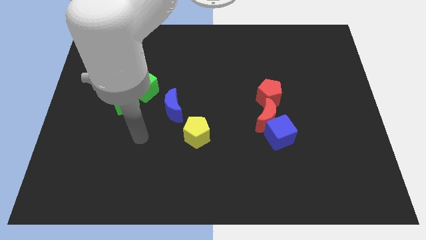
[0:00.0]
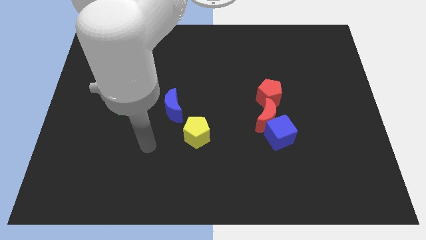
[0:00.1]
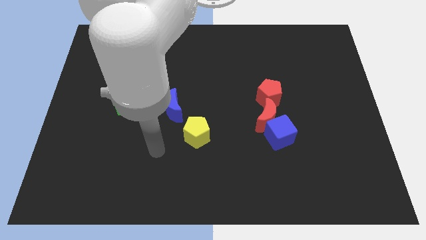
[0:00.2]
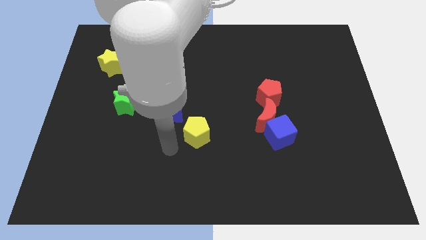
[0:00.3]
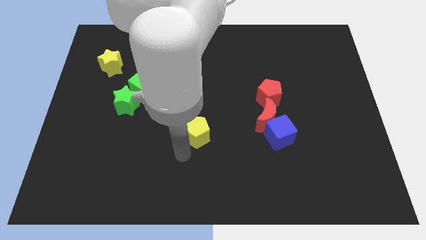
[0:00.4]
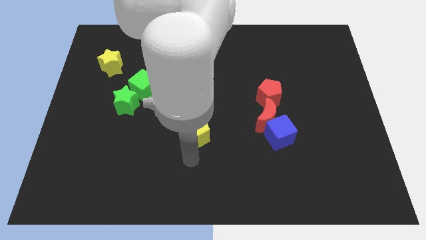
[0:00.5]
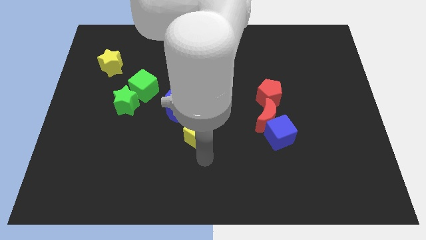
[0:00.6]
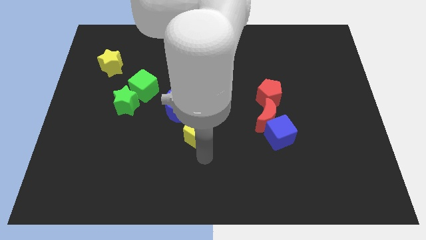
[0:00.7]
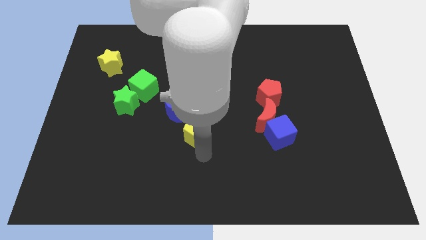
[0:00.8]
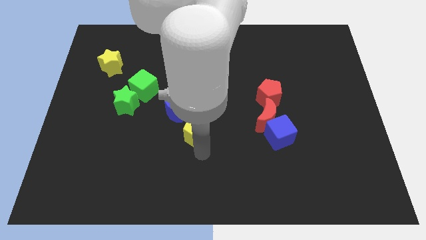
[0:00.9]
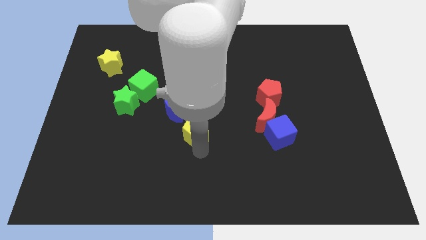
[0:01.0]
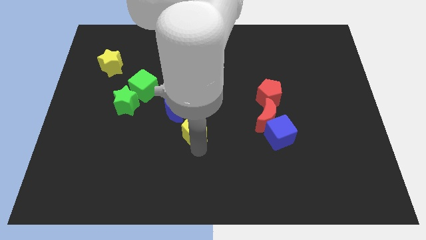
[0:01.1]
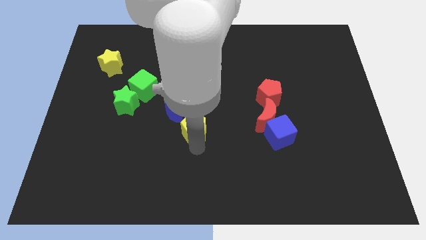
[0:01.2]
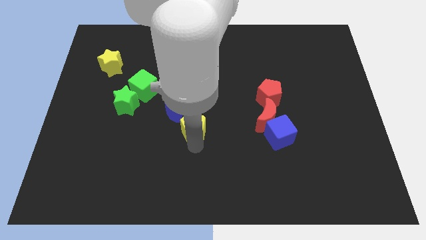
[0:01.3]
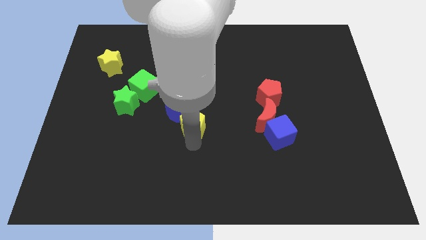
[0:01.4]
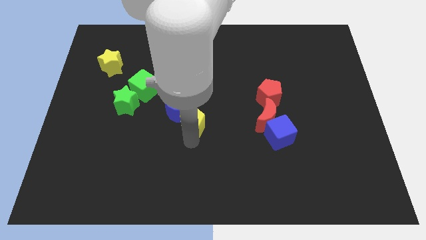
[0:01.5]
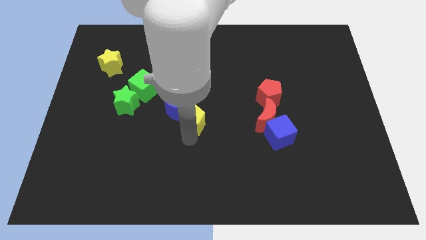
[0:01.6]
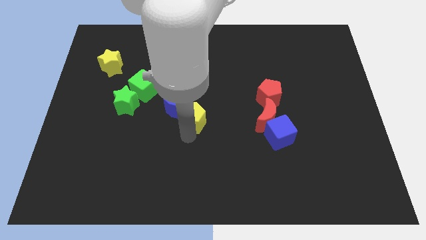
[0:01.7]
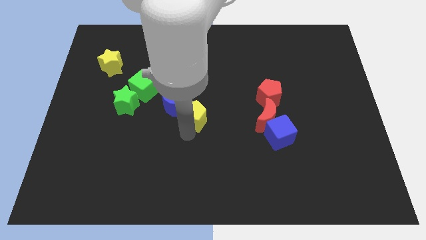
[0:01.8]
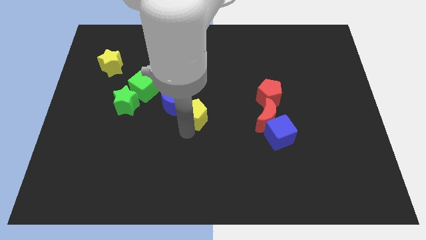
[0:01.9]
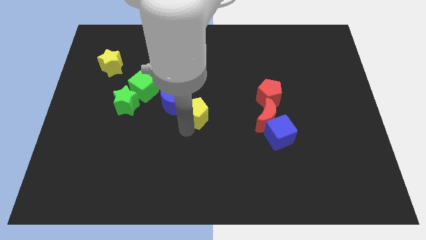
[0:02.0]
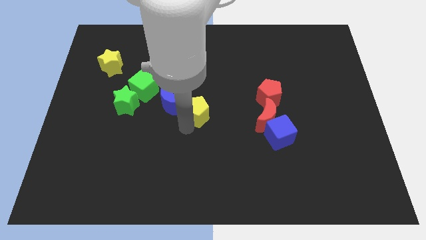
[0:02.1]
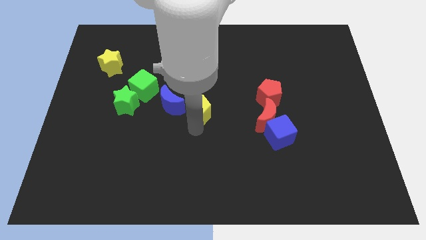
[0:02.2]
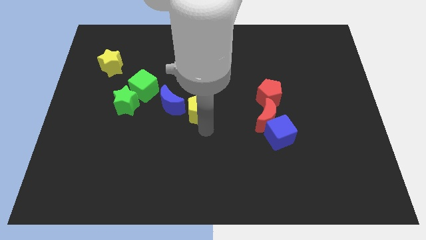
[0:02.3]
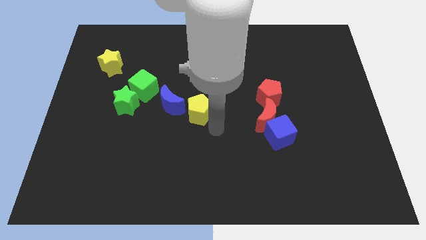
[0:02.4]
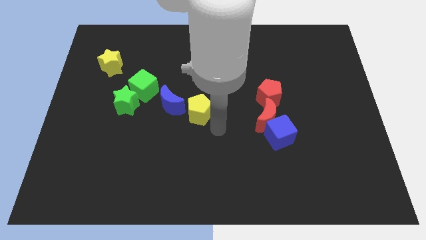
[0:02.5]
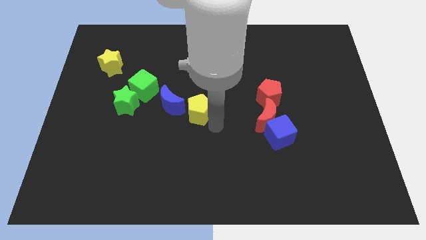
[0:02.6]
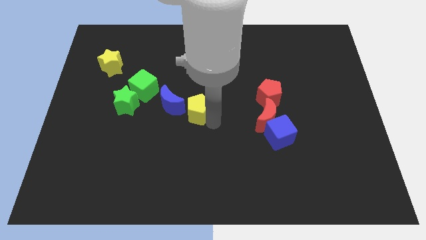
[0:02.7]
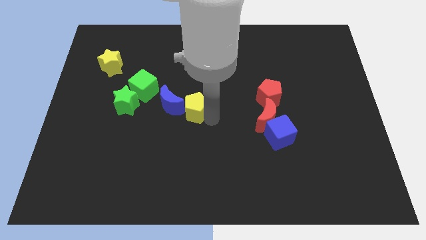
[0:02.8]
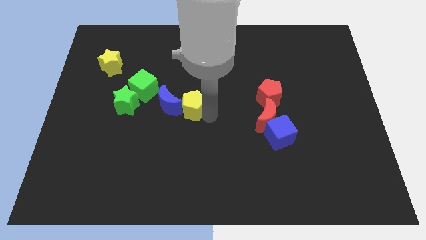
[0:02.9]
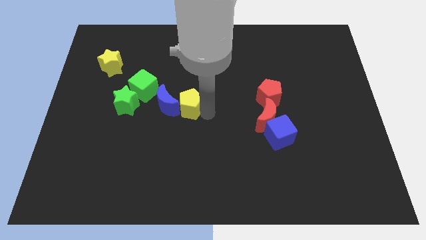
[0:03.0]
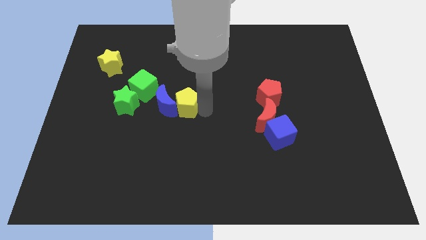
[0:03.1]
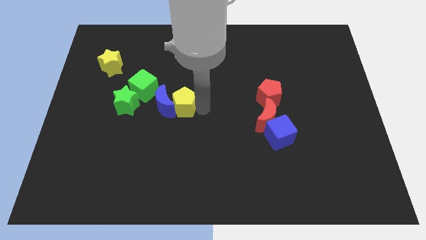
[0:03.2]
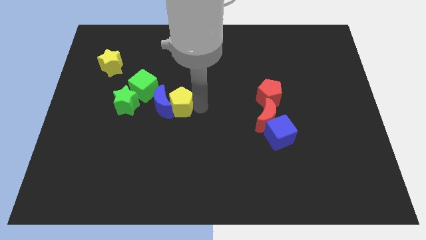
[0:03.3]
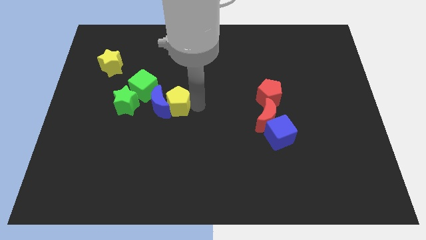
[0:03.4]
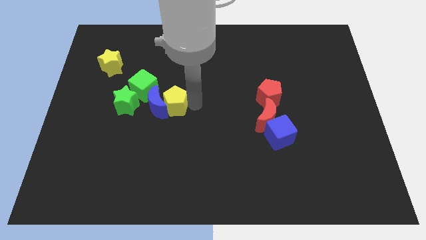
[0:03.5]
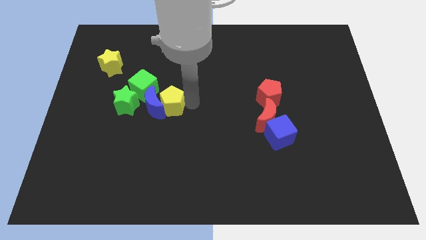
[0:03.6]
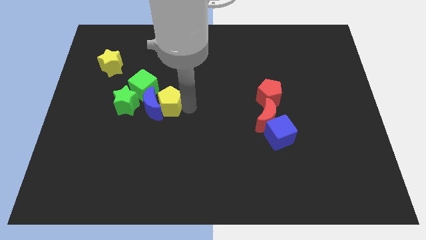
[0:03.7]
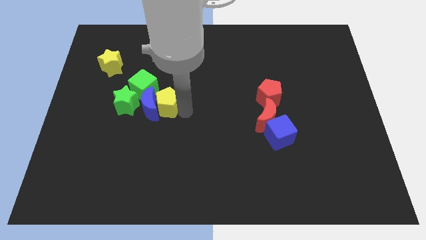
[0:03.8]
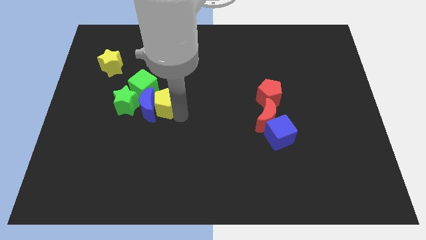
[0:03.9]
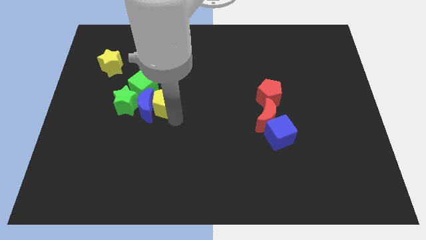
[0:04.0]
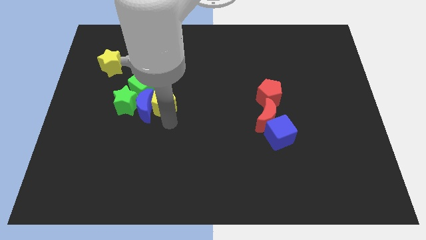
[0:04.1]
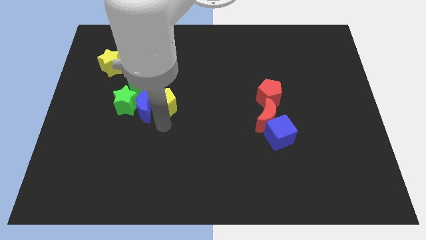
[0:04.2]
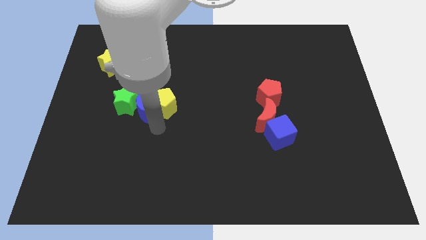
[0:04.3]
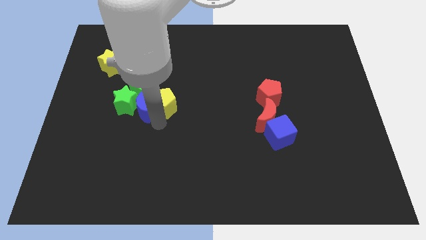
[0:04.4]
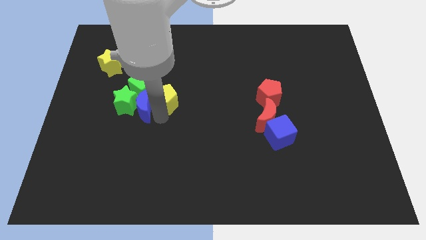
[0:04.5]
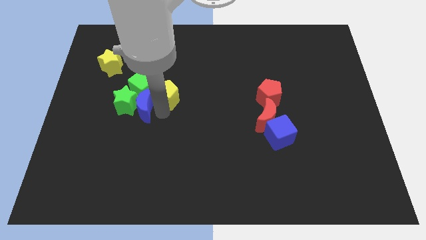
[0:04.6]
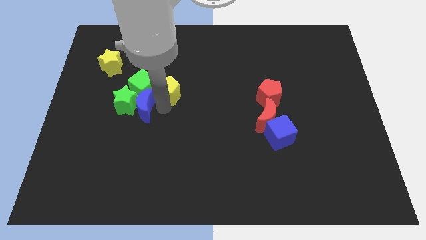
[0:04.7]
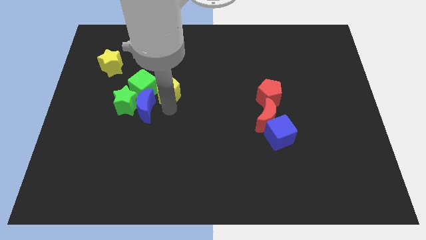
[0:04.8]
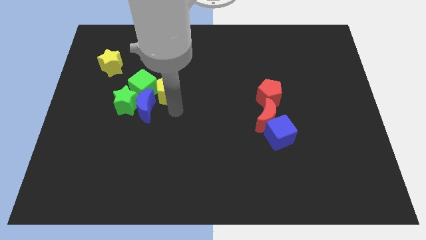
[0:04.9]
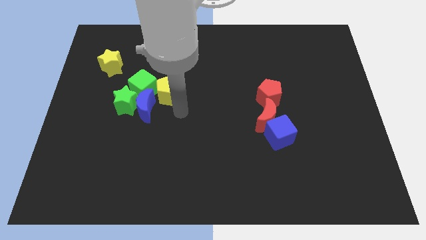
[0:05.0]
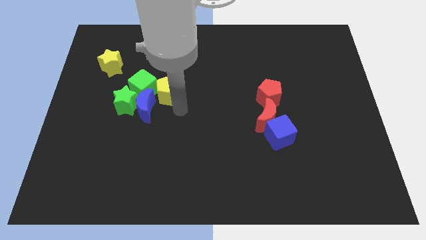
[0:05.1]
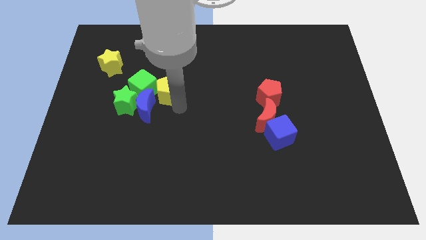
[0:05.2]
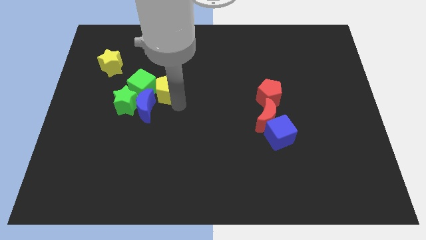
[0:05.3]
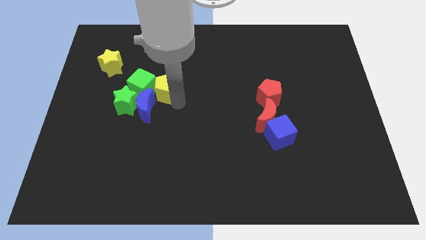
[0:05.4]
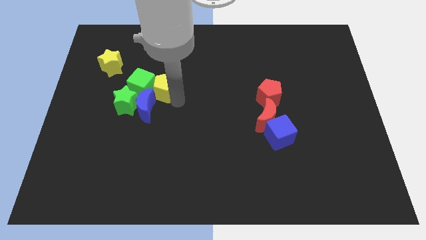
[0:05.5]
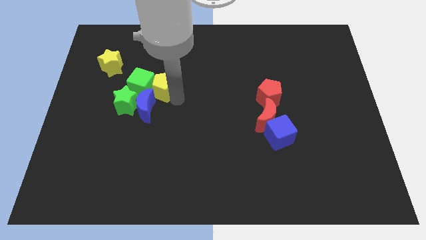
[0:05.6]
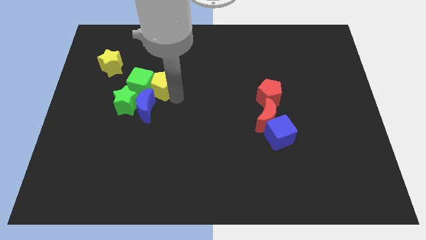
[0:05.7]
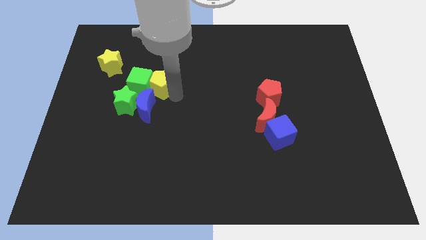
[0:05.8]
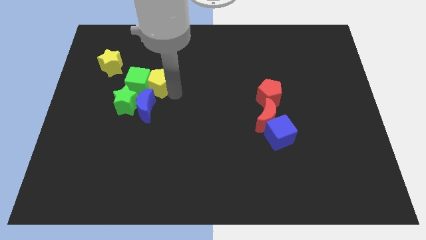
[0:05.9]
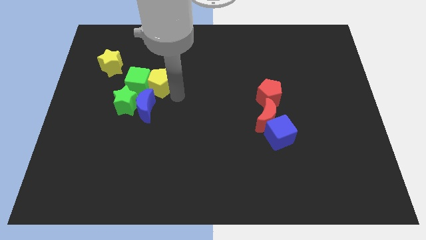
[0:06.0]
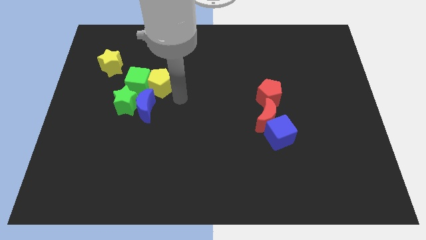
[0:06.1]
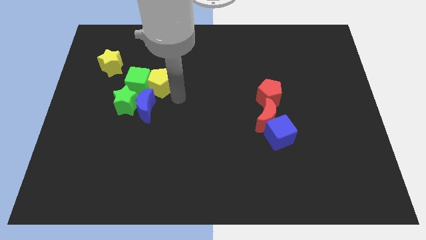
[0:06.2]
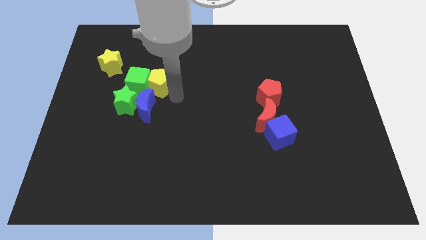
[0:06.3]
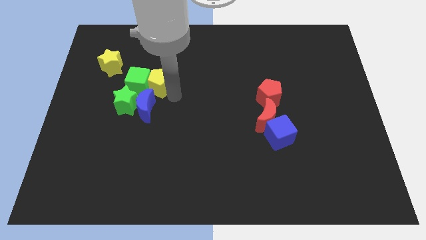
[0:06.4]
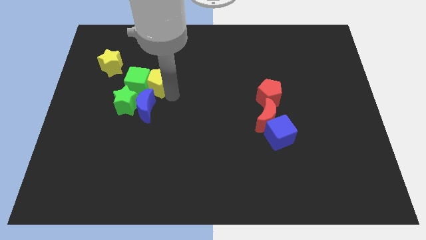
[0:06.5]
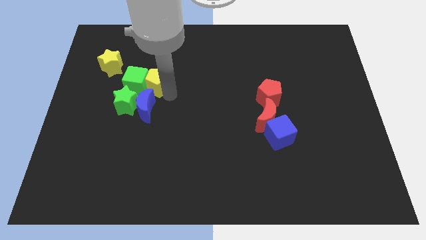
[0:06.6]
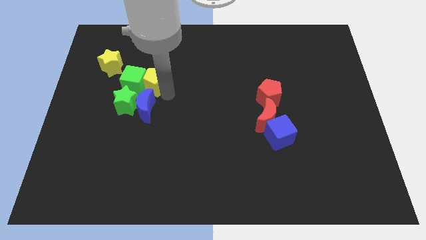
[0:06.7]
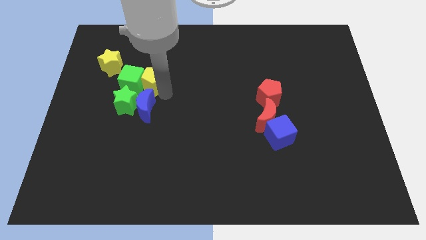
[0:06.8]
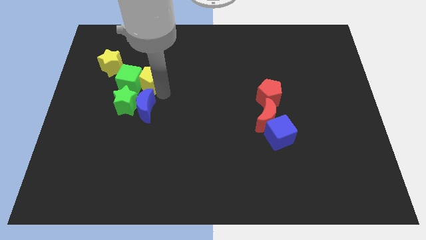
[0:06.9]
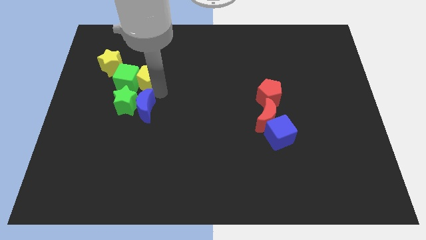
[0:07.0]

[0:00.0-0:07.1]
put the yellow pentagon to the bottom right side of the yellow star
